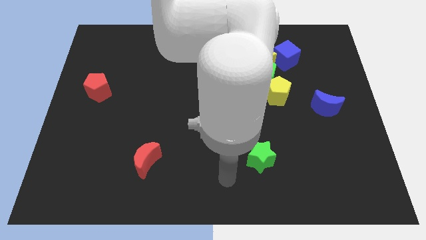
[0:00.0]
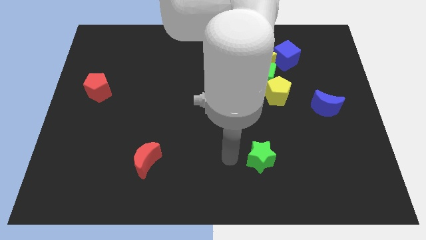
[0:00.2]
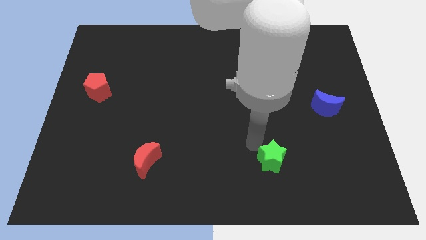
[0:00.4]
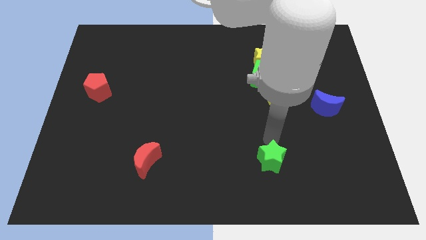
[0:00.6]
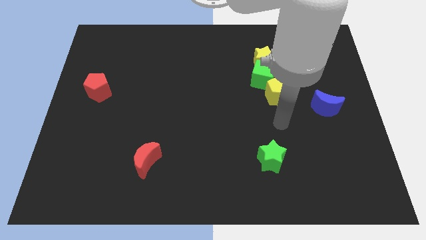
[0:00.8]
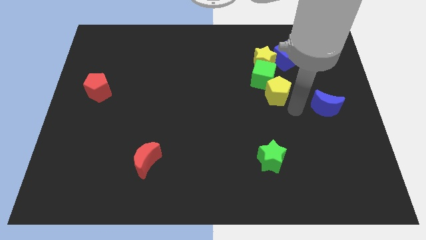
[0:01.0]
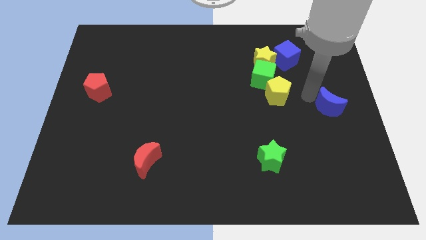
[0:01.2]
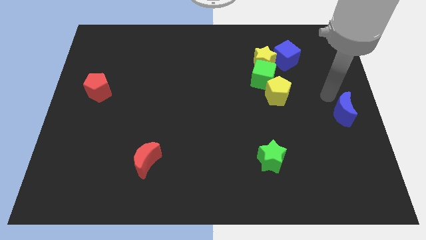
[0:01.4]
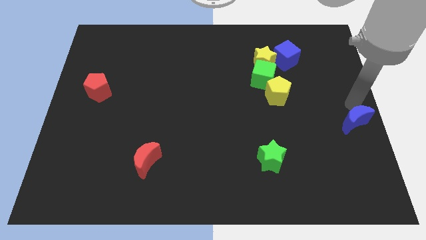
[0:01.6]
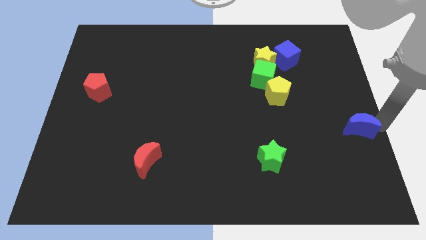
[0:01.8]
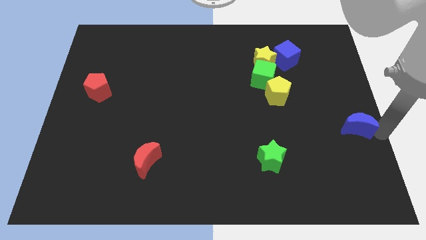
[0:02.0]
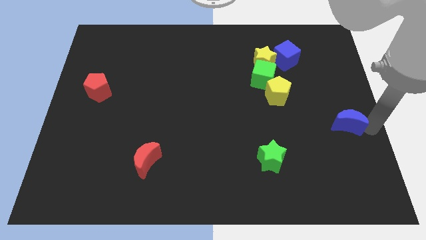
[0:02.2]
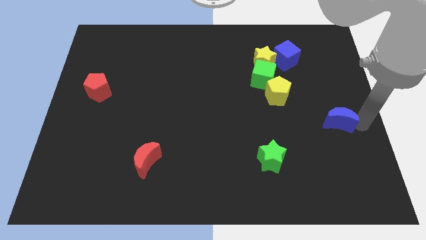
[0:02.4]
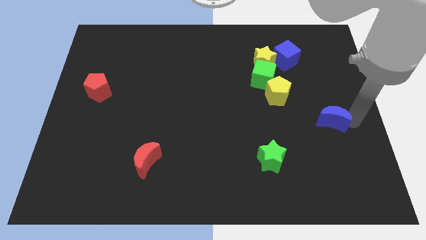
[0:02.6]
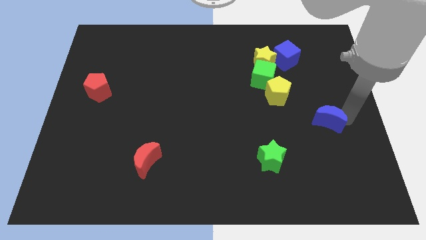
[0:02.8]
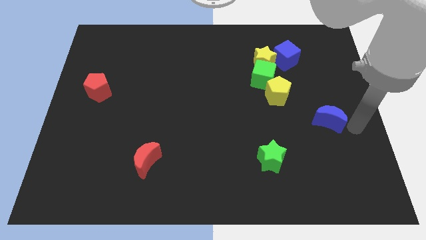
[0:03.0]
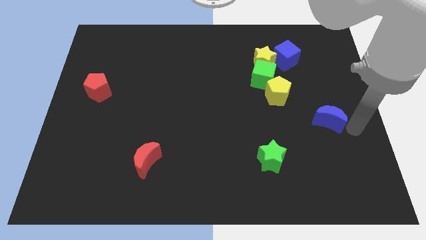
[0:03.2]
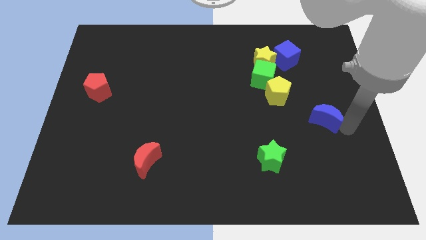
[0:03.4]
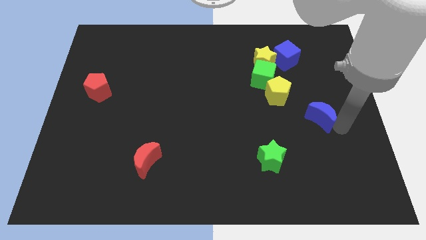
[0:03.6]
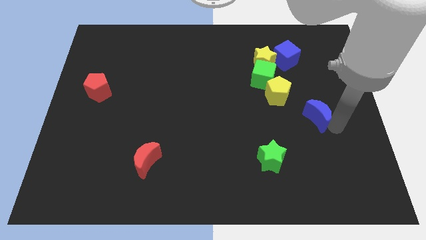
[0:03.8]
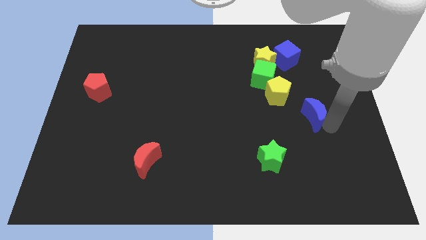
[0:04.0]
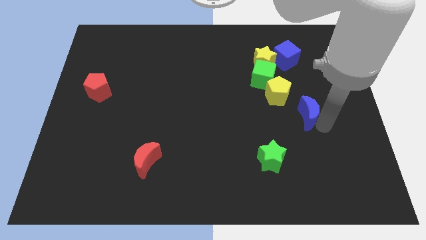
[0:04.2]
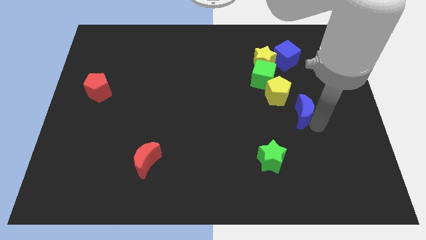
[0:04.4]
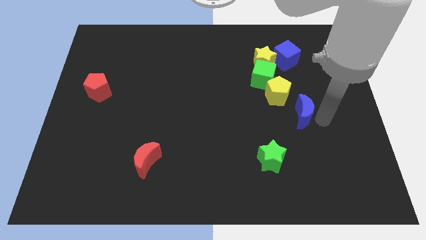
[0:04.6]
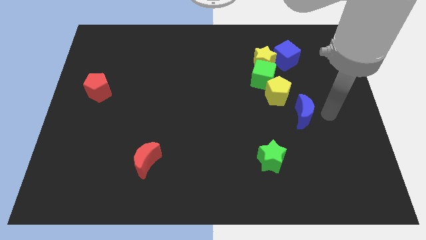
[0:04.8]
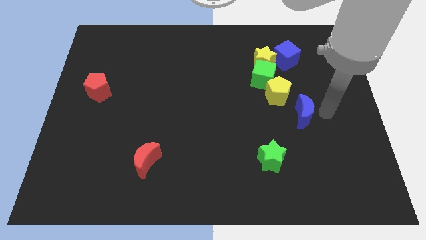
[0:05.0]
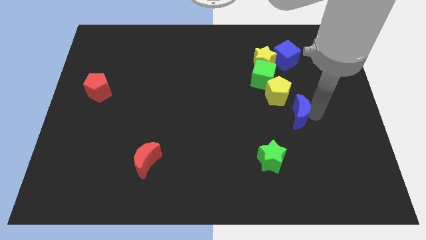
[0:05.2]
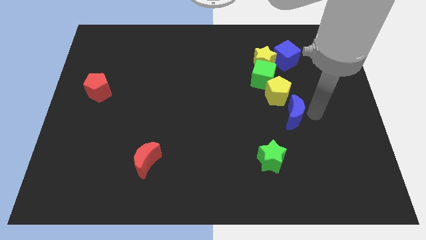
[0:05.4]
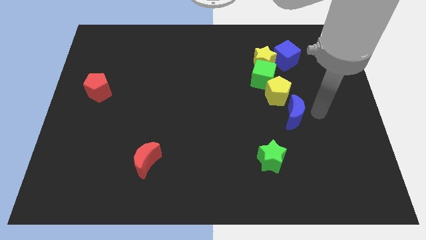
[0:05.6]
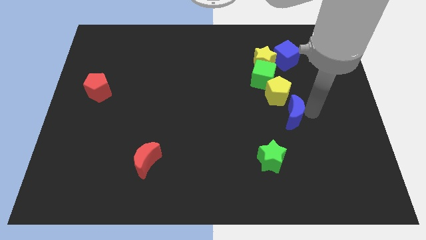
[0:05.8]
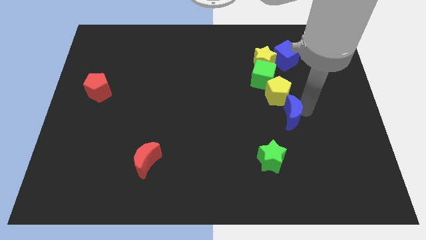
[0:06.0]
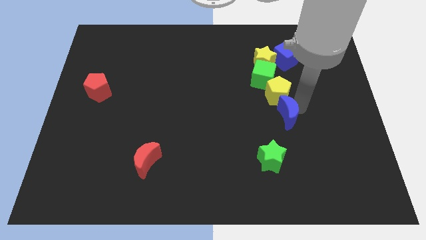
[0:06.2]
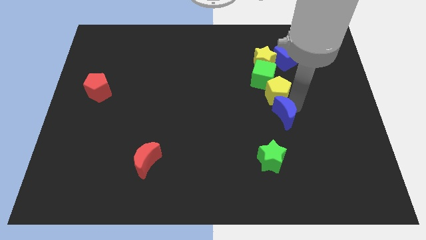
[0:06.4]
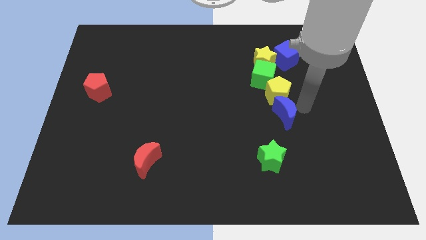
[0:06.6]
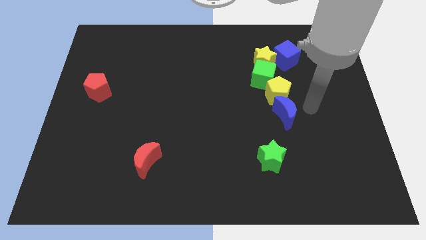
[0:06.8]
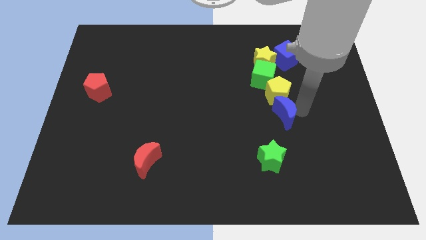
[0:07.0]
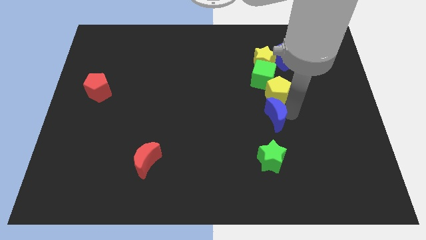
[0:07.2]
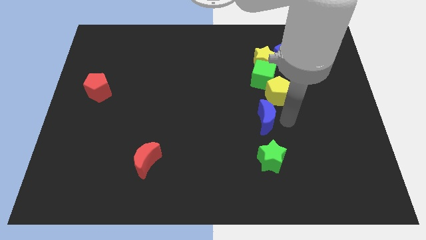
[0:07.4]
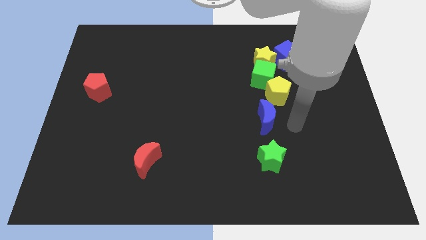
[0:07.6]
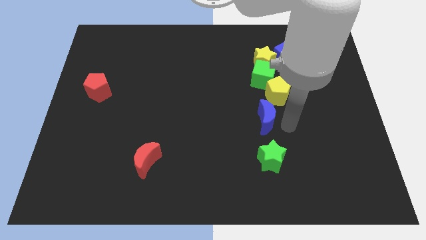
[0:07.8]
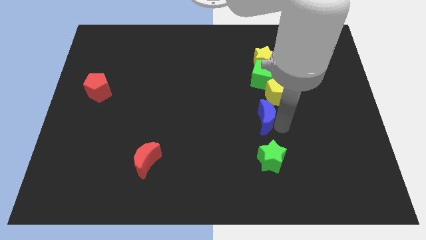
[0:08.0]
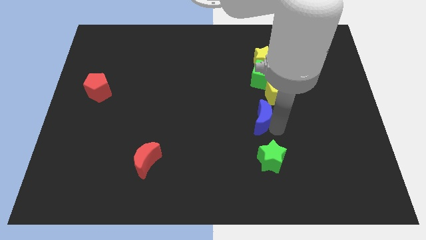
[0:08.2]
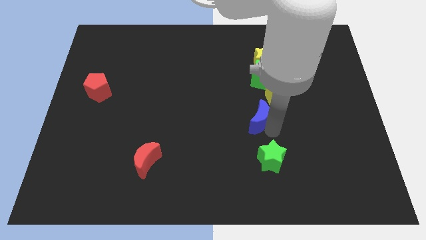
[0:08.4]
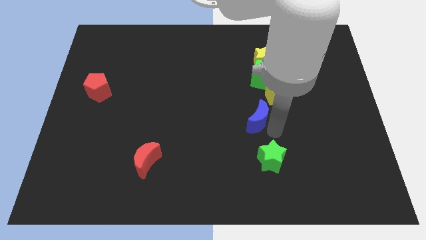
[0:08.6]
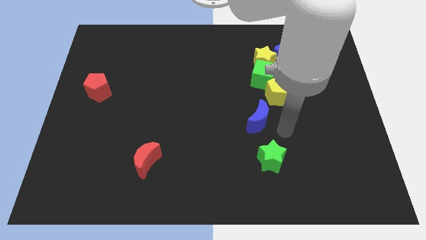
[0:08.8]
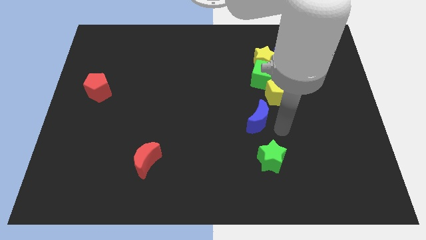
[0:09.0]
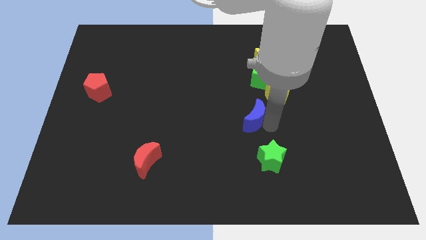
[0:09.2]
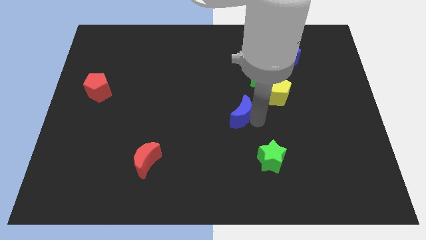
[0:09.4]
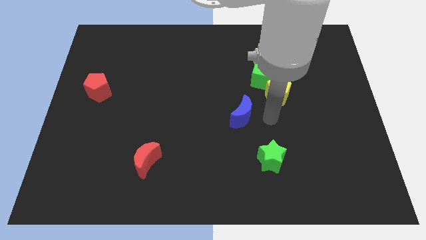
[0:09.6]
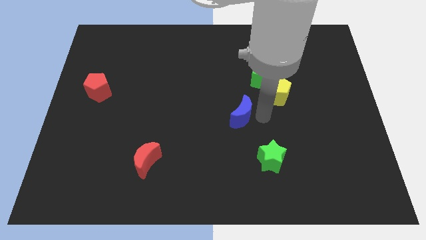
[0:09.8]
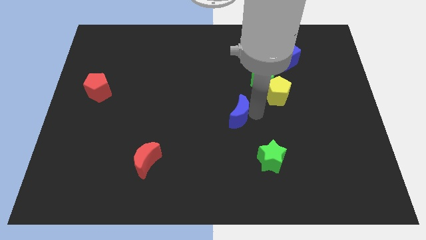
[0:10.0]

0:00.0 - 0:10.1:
move the blue moon to the left

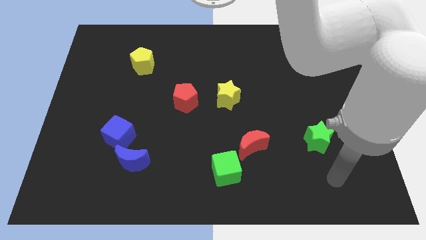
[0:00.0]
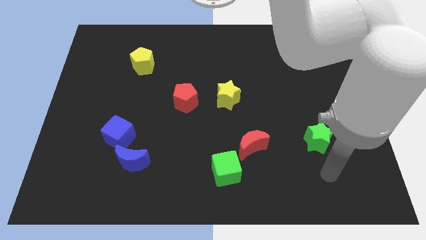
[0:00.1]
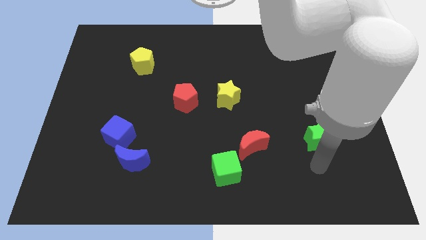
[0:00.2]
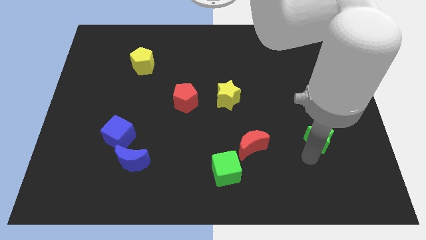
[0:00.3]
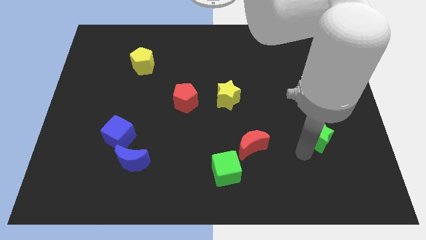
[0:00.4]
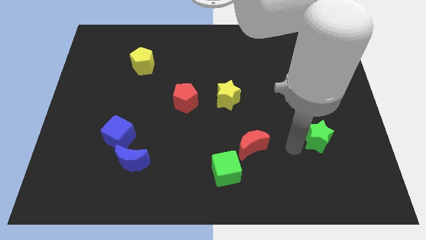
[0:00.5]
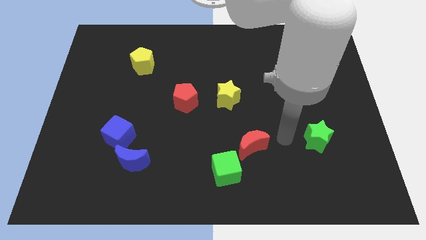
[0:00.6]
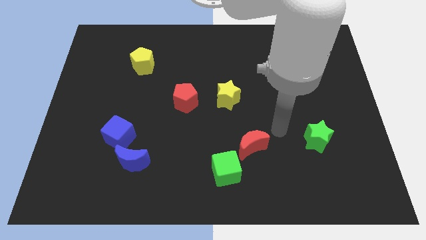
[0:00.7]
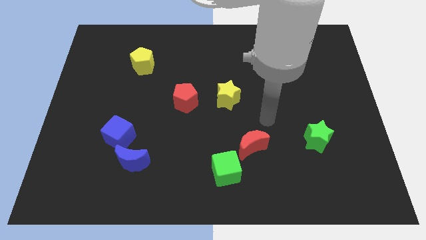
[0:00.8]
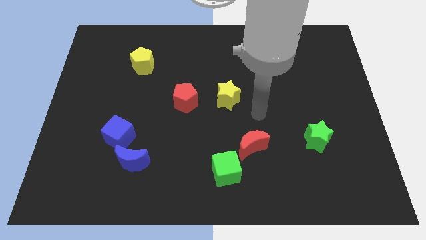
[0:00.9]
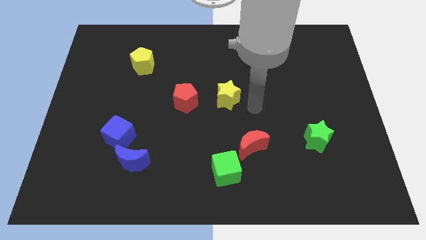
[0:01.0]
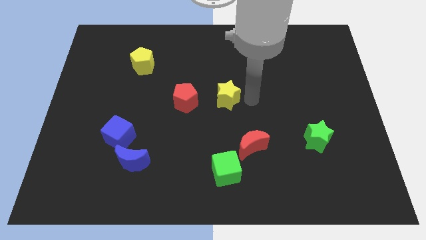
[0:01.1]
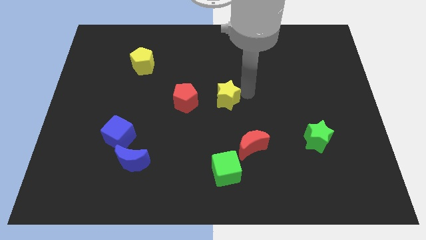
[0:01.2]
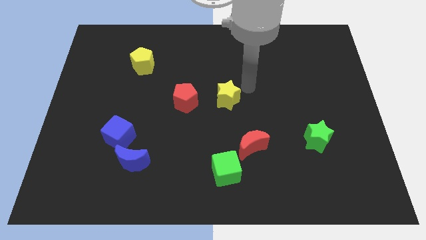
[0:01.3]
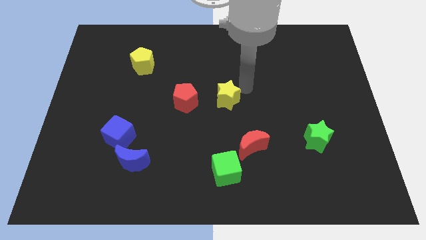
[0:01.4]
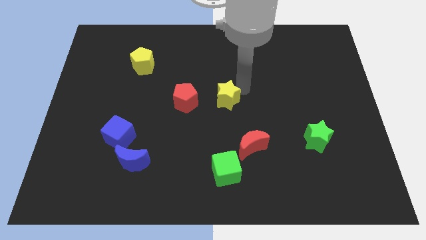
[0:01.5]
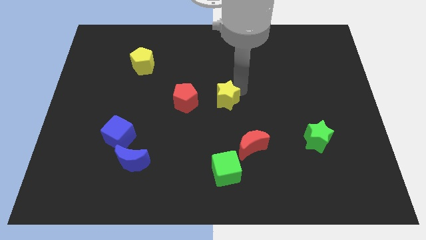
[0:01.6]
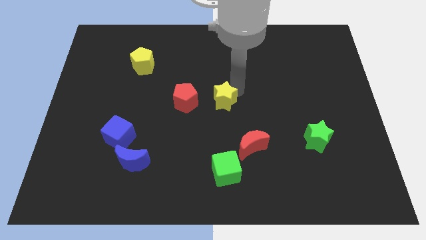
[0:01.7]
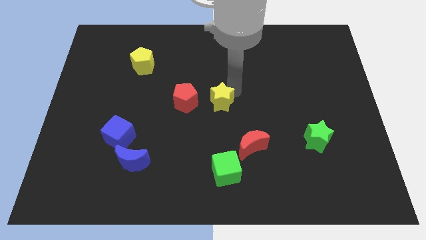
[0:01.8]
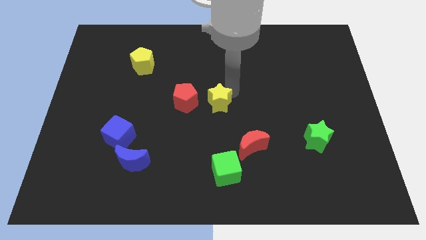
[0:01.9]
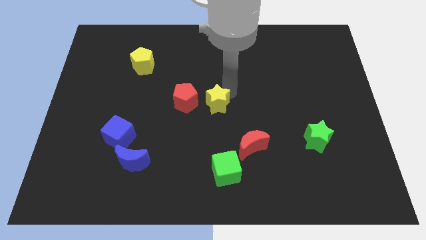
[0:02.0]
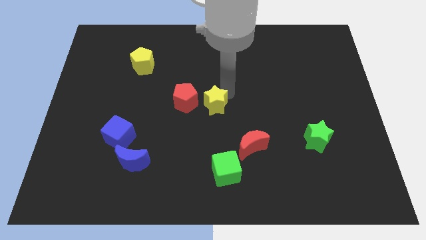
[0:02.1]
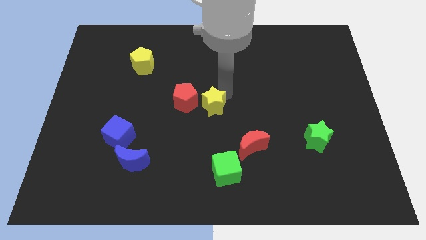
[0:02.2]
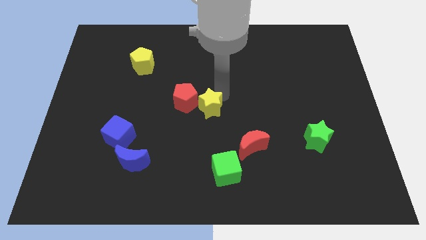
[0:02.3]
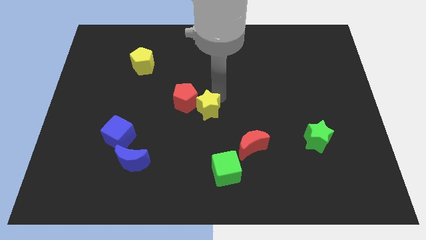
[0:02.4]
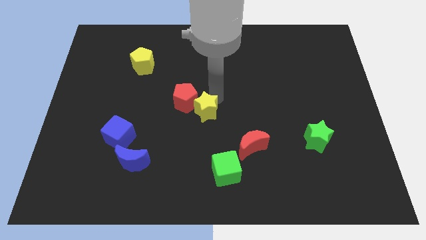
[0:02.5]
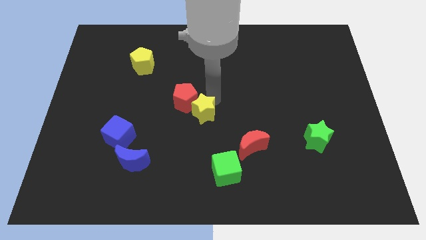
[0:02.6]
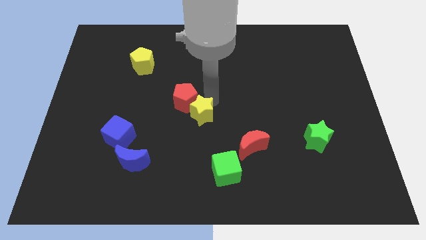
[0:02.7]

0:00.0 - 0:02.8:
move the yellow star downwards and then left somewhat
